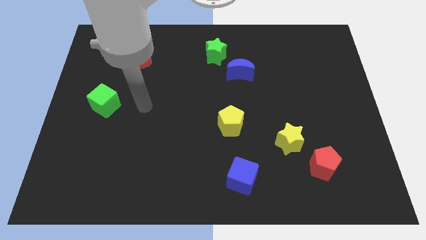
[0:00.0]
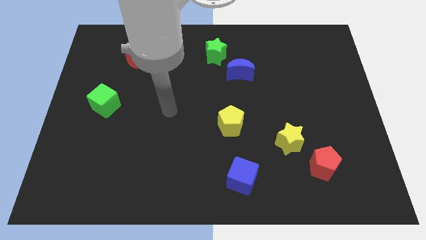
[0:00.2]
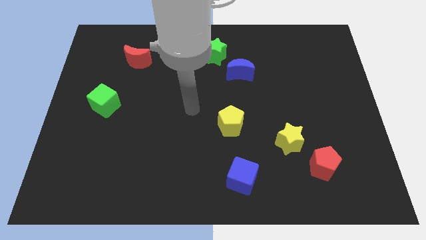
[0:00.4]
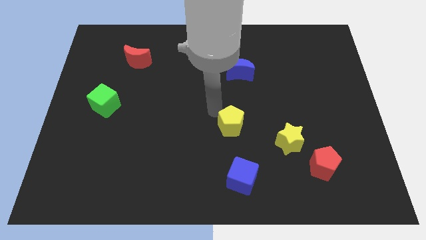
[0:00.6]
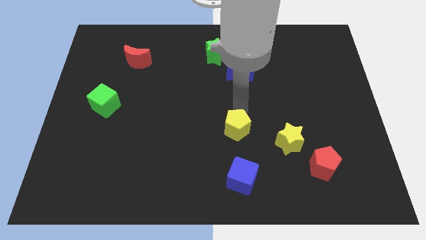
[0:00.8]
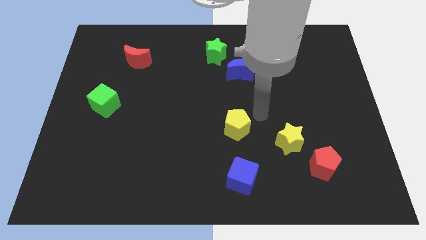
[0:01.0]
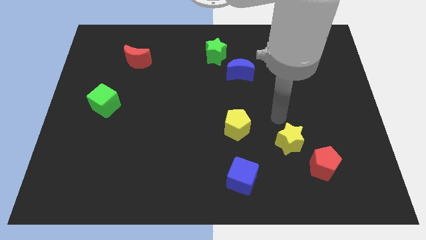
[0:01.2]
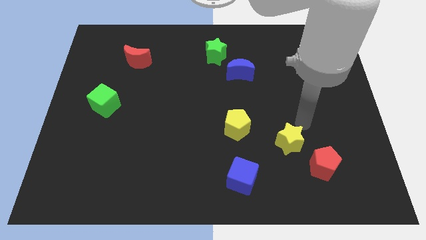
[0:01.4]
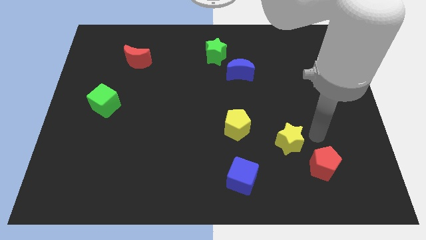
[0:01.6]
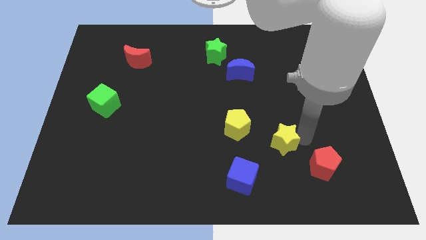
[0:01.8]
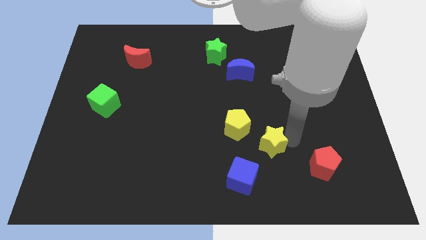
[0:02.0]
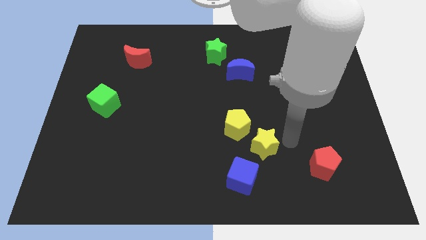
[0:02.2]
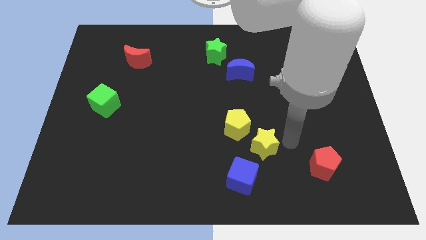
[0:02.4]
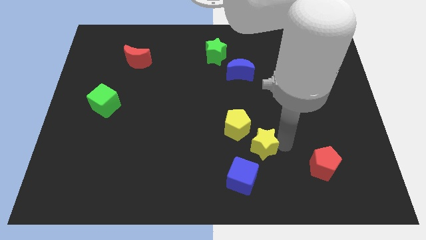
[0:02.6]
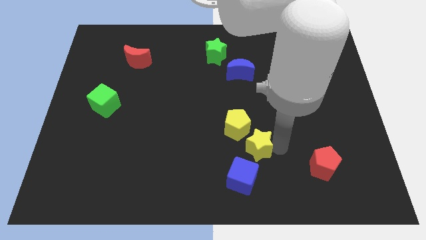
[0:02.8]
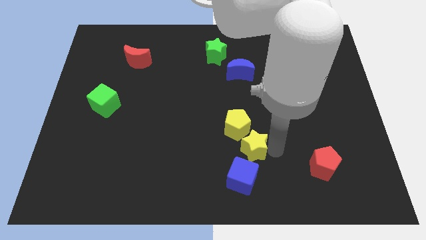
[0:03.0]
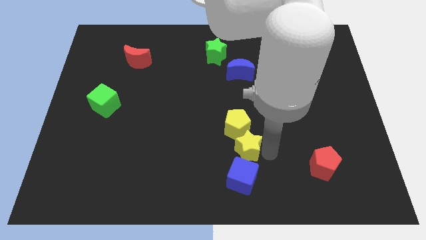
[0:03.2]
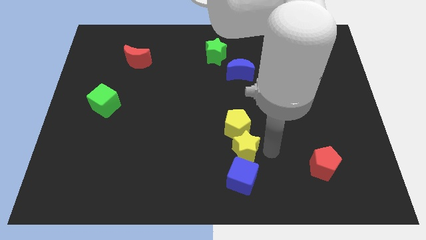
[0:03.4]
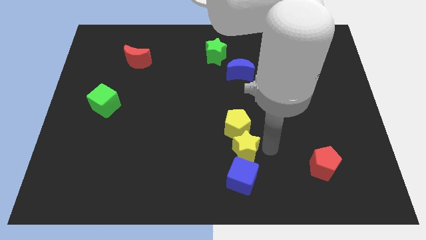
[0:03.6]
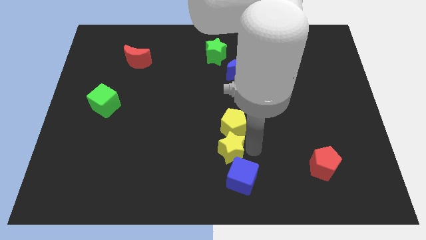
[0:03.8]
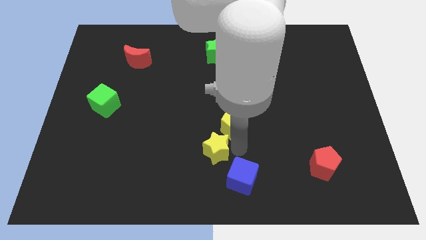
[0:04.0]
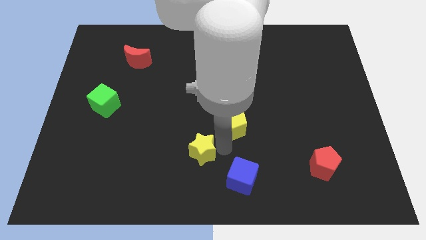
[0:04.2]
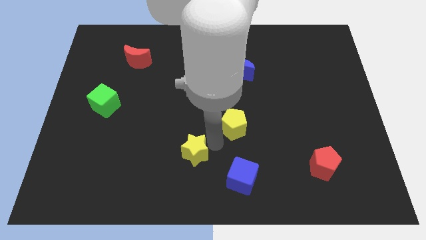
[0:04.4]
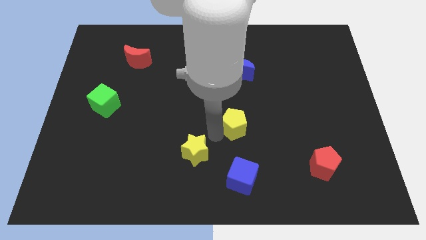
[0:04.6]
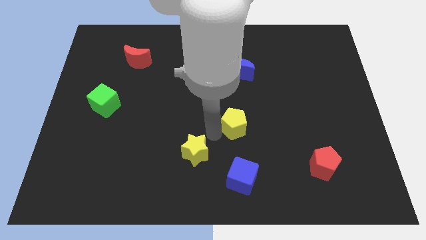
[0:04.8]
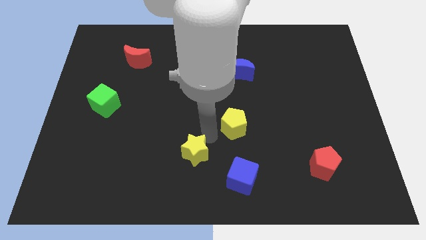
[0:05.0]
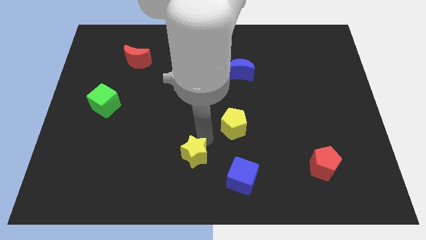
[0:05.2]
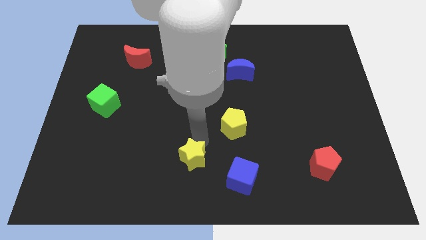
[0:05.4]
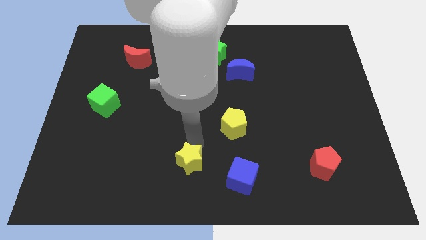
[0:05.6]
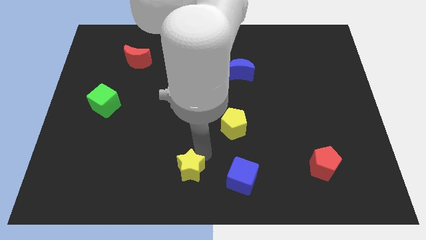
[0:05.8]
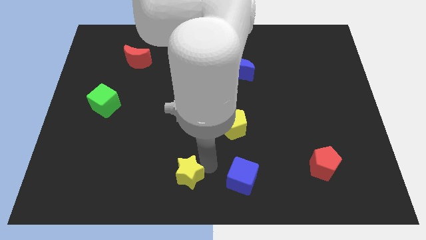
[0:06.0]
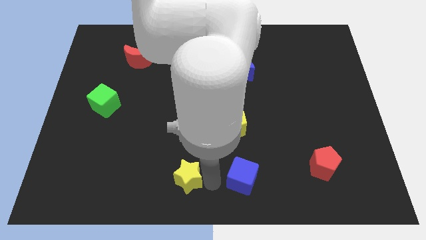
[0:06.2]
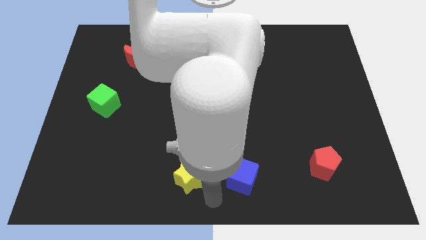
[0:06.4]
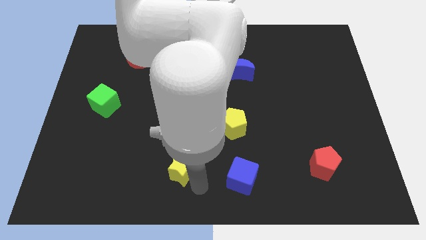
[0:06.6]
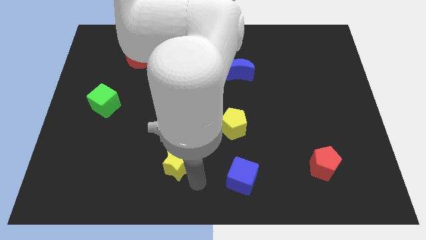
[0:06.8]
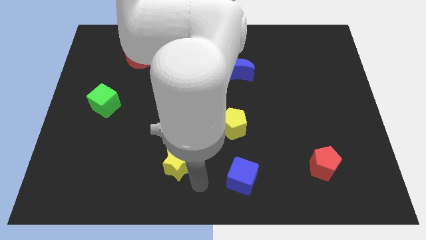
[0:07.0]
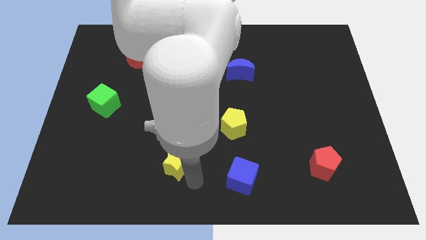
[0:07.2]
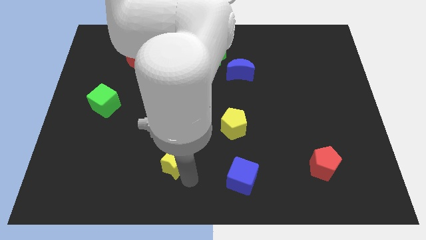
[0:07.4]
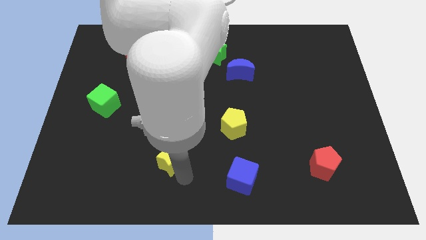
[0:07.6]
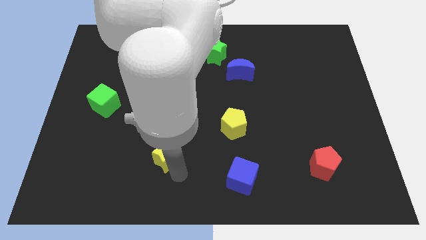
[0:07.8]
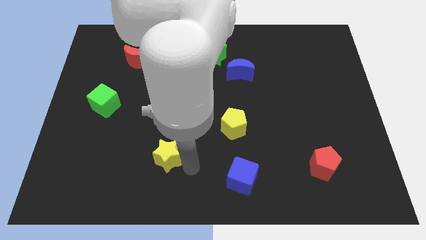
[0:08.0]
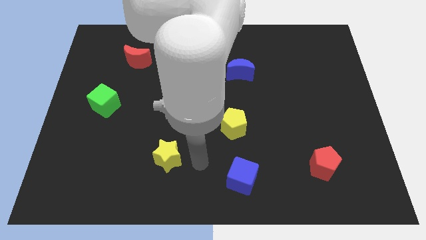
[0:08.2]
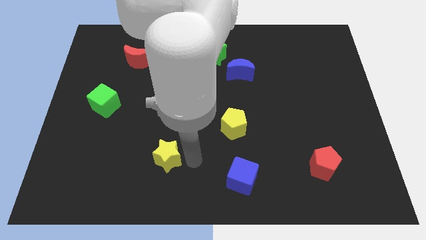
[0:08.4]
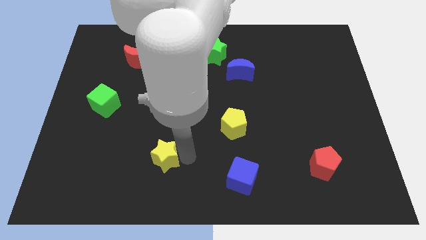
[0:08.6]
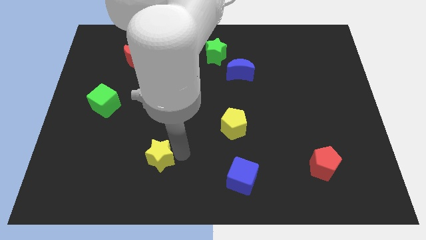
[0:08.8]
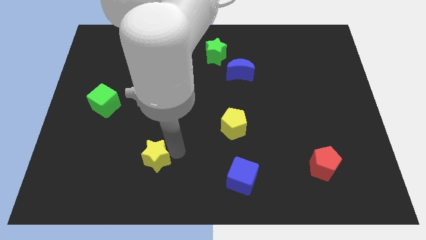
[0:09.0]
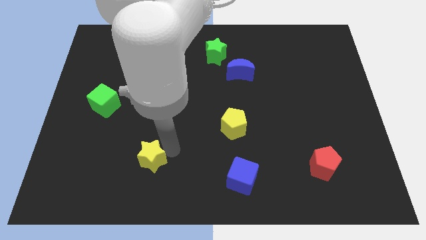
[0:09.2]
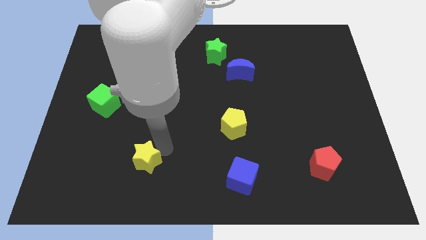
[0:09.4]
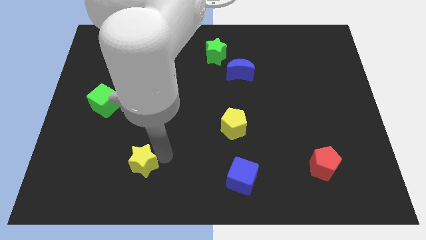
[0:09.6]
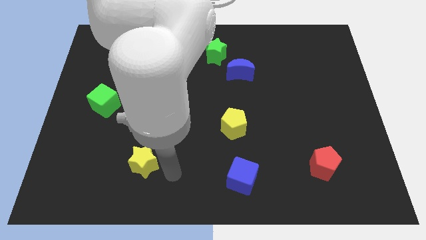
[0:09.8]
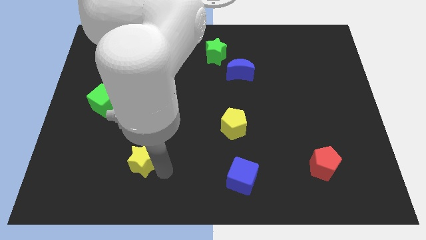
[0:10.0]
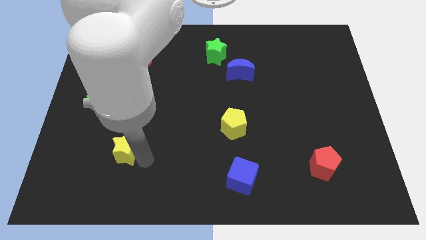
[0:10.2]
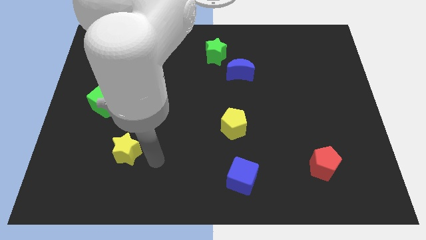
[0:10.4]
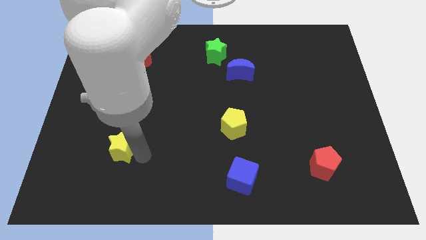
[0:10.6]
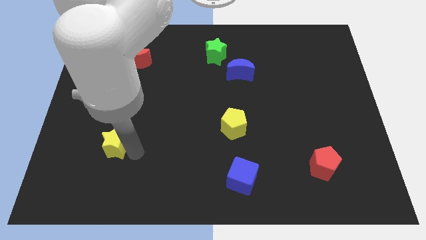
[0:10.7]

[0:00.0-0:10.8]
move the yellow star below the green cube

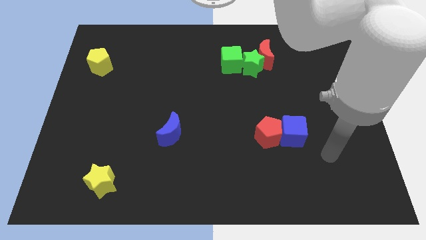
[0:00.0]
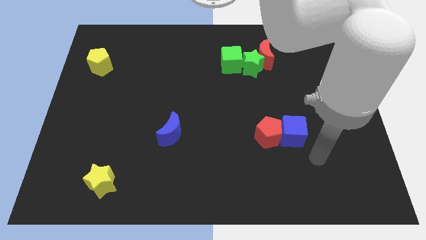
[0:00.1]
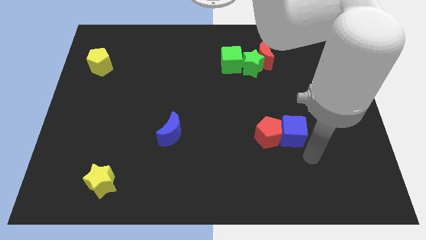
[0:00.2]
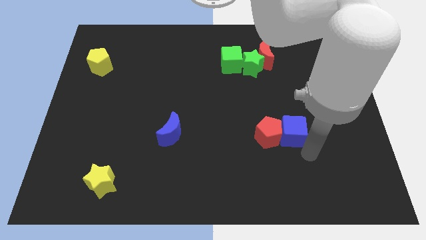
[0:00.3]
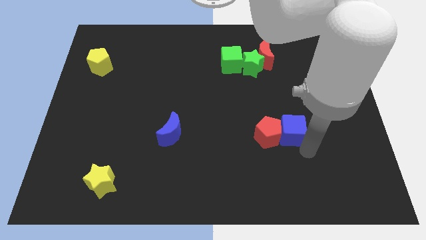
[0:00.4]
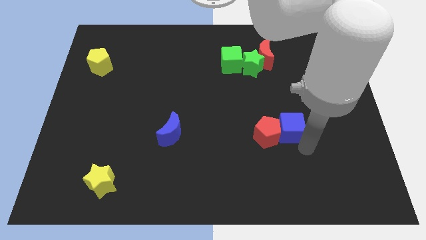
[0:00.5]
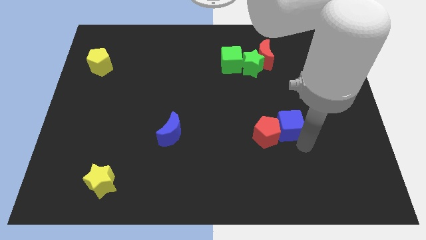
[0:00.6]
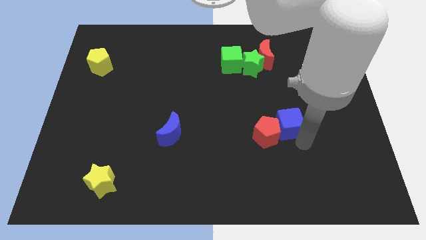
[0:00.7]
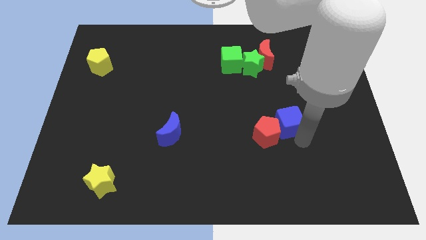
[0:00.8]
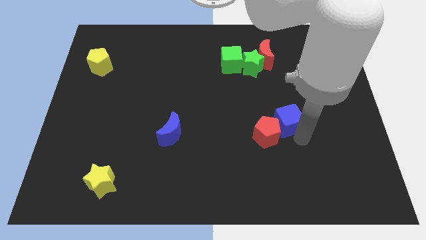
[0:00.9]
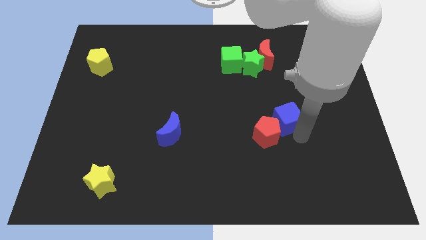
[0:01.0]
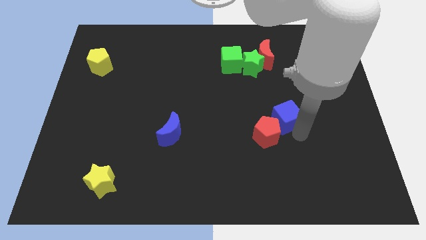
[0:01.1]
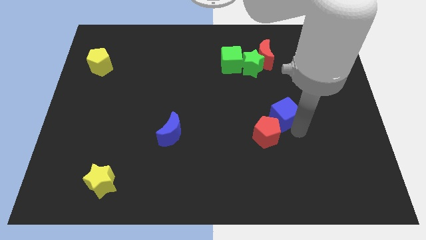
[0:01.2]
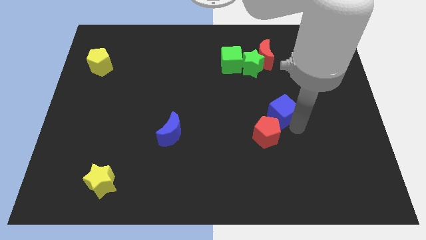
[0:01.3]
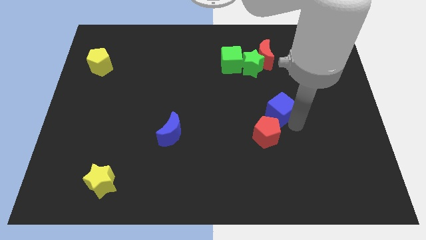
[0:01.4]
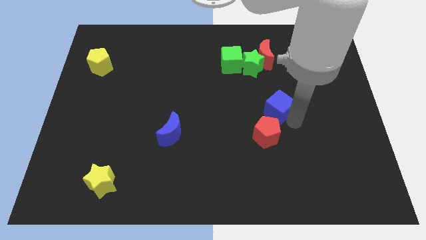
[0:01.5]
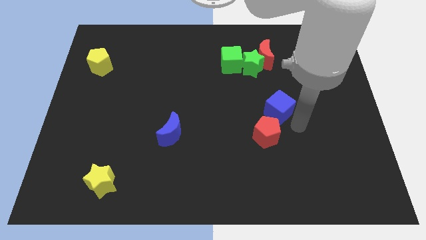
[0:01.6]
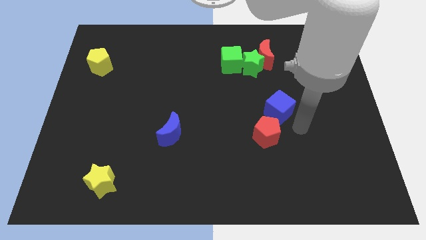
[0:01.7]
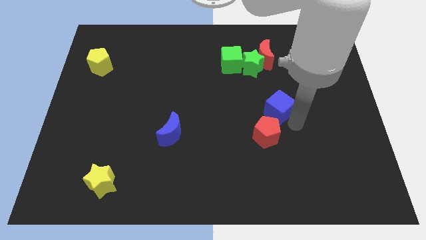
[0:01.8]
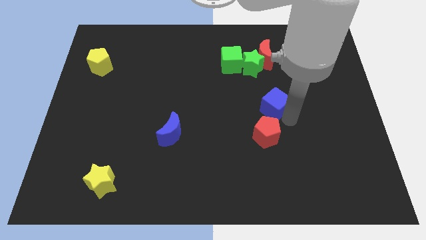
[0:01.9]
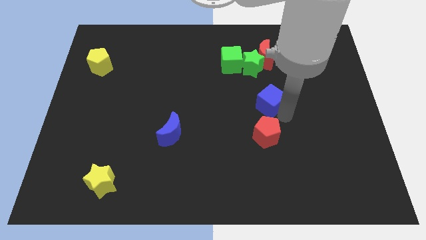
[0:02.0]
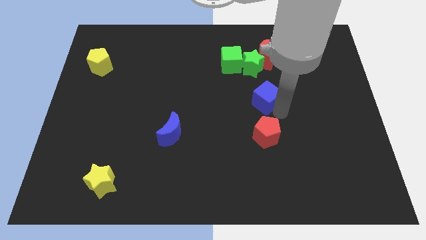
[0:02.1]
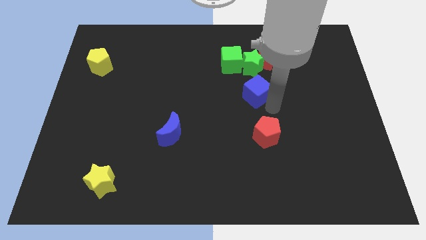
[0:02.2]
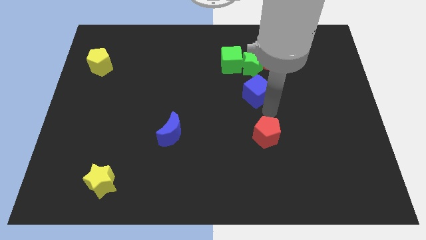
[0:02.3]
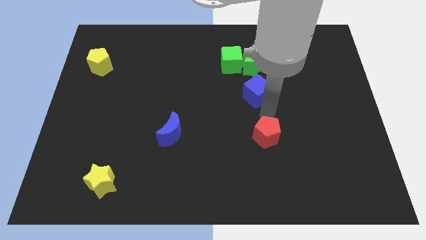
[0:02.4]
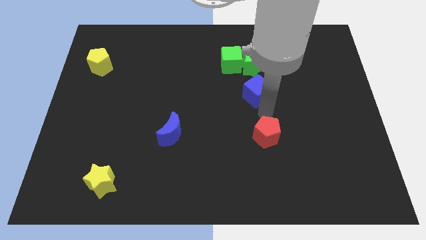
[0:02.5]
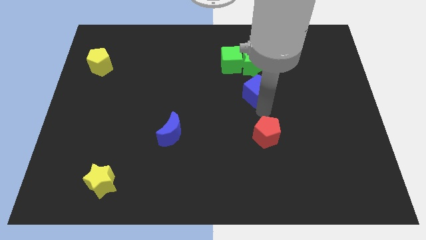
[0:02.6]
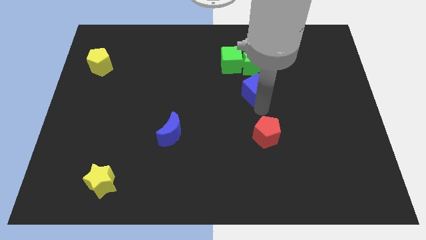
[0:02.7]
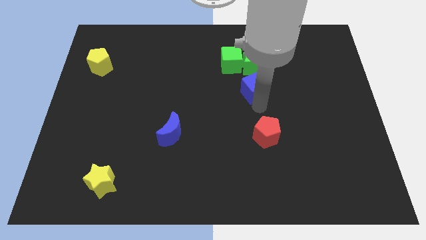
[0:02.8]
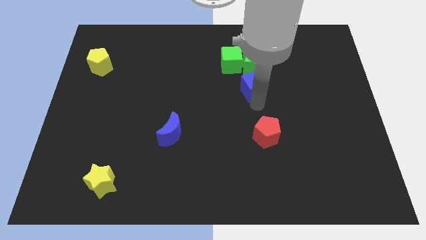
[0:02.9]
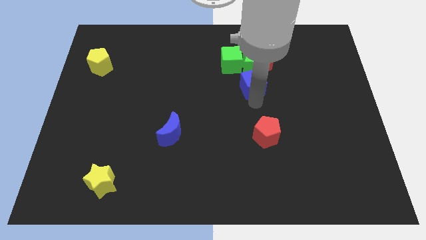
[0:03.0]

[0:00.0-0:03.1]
move the blue cube to the bottom left side of the red moon
